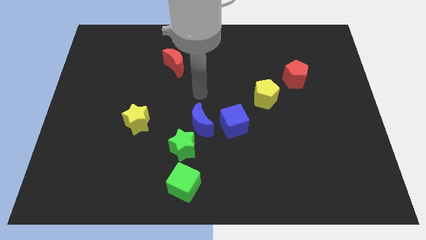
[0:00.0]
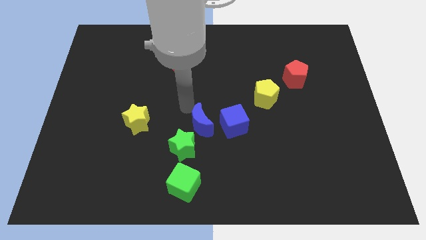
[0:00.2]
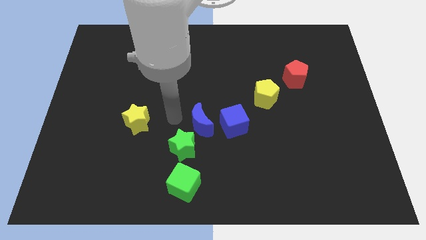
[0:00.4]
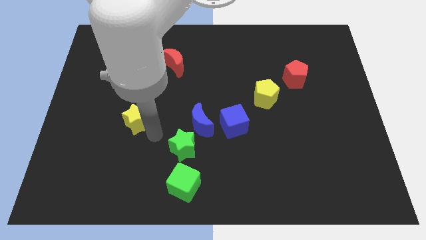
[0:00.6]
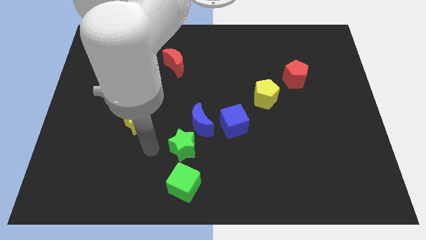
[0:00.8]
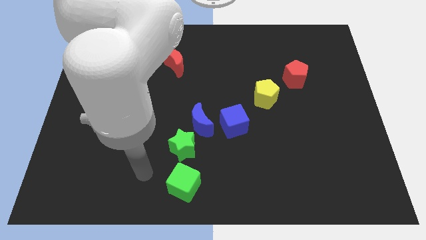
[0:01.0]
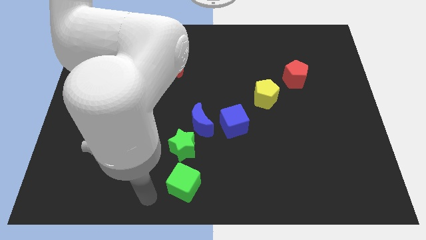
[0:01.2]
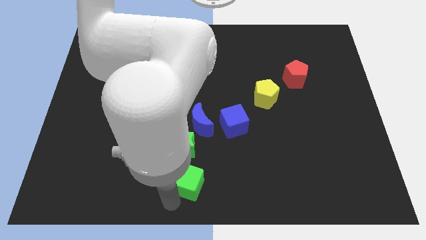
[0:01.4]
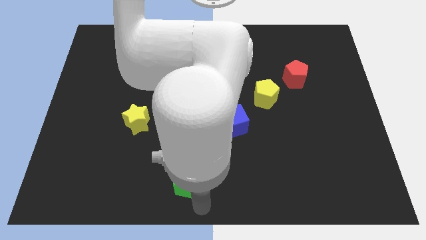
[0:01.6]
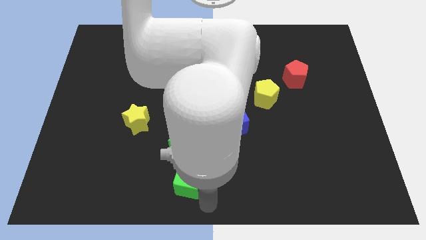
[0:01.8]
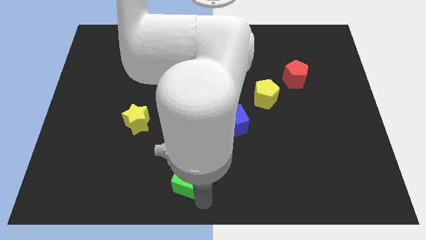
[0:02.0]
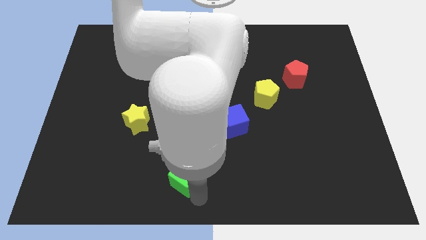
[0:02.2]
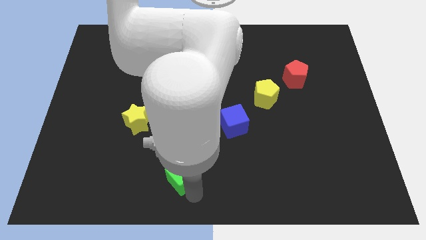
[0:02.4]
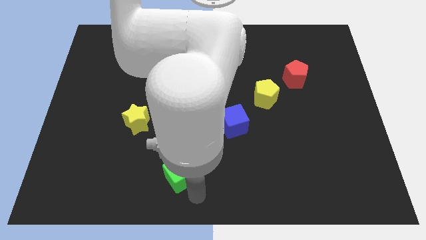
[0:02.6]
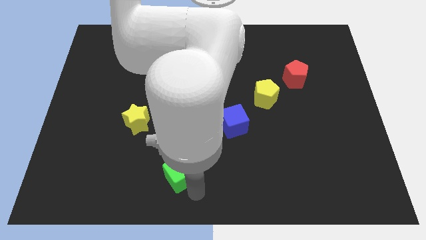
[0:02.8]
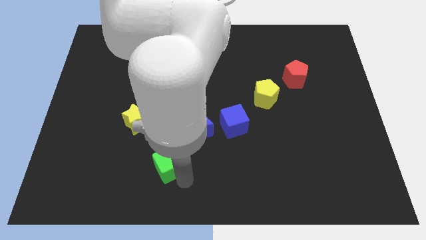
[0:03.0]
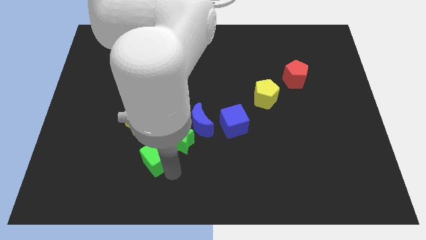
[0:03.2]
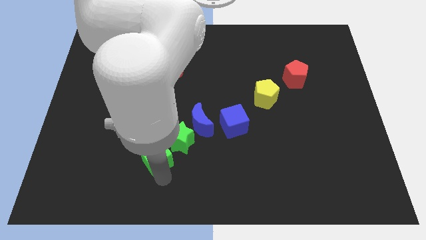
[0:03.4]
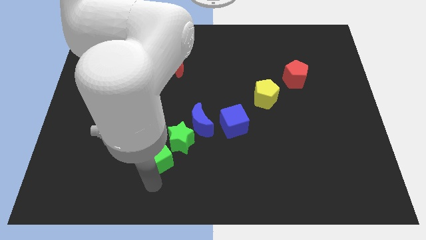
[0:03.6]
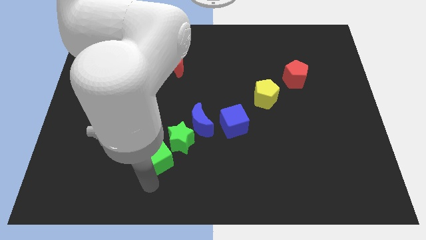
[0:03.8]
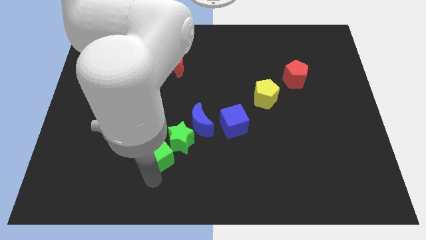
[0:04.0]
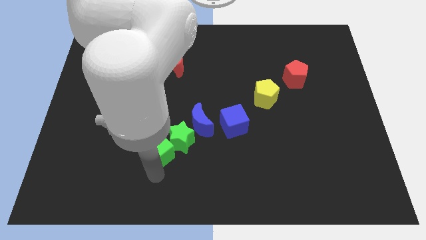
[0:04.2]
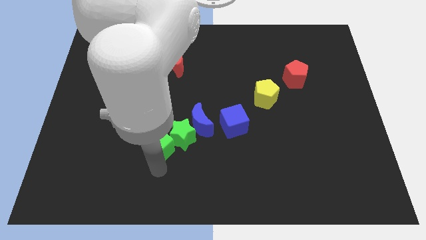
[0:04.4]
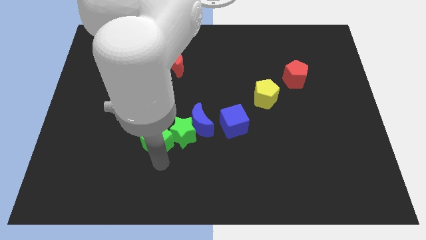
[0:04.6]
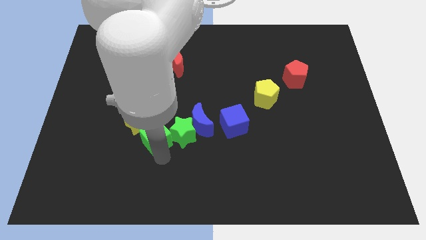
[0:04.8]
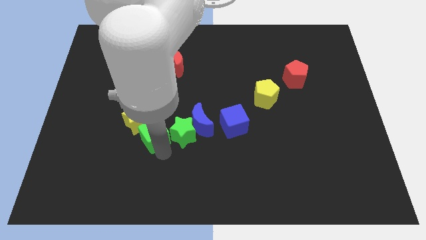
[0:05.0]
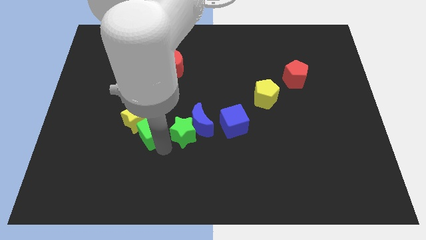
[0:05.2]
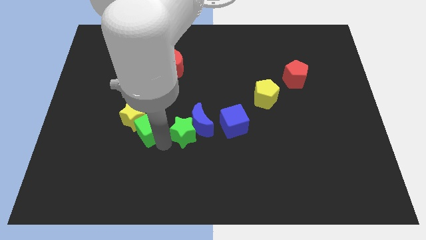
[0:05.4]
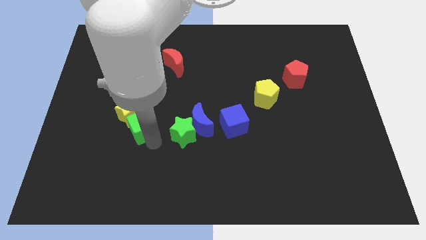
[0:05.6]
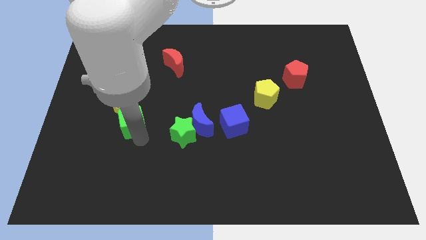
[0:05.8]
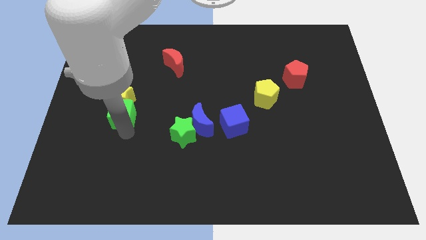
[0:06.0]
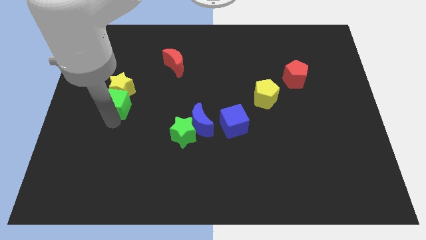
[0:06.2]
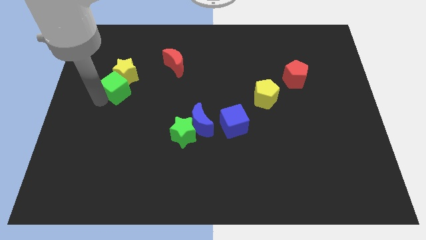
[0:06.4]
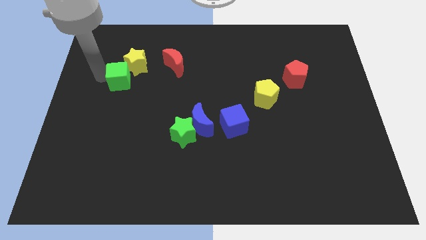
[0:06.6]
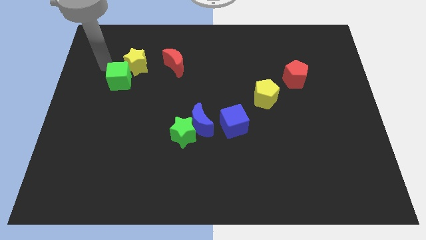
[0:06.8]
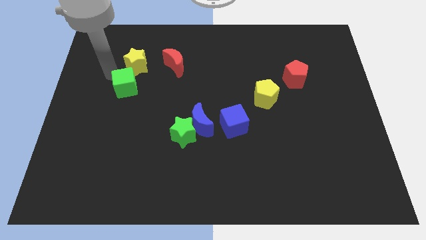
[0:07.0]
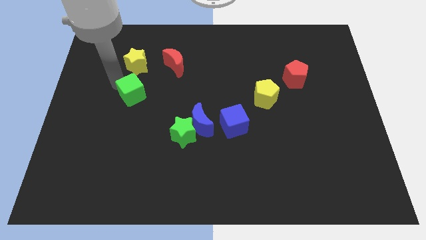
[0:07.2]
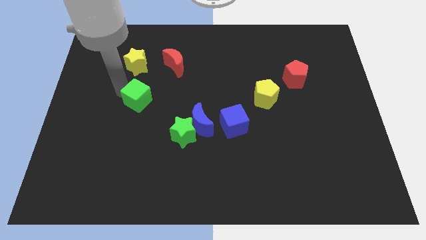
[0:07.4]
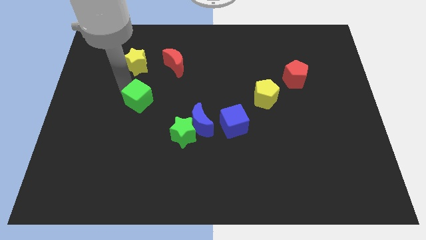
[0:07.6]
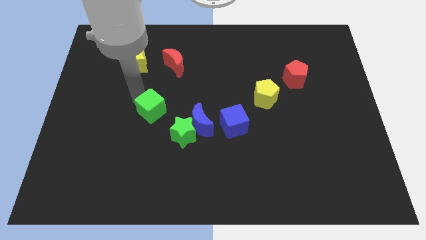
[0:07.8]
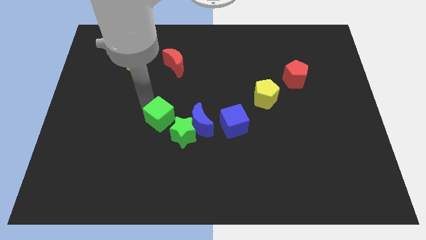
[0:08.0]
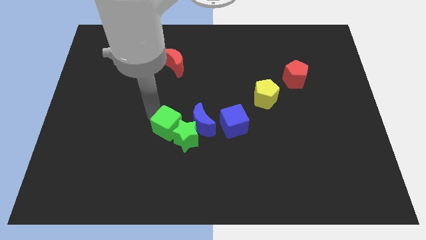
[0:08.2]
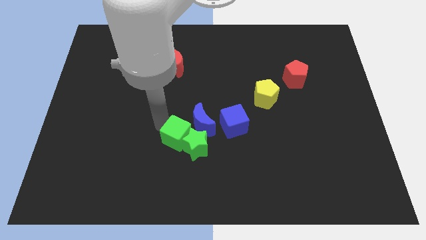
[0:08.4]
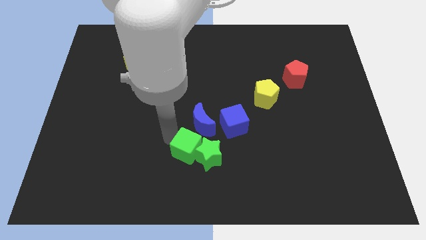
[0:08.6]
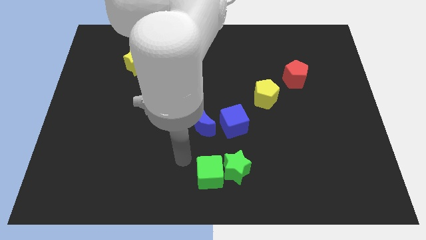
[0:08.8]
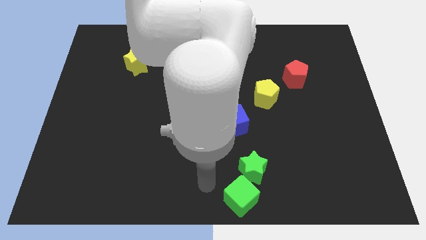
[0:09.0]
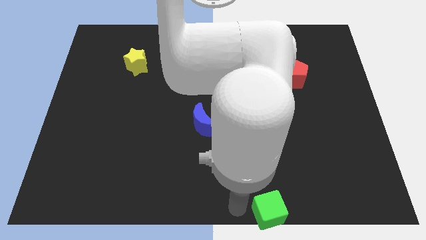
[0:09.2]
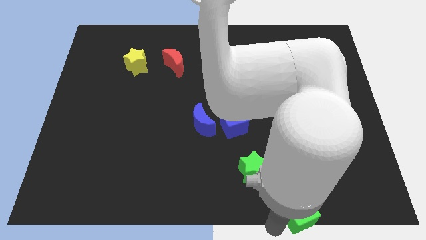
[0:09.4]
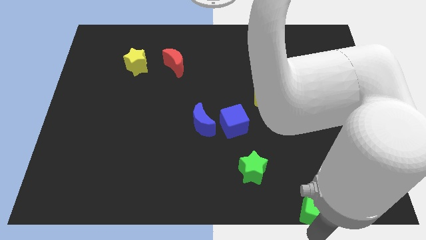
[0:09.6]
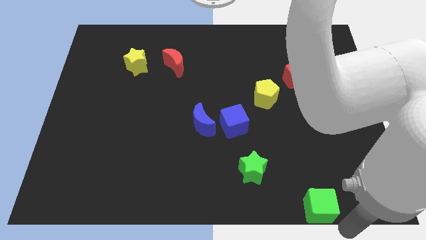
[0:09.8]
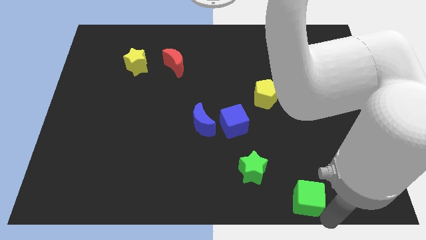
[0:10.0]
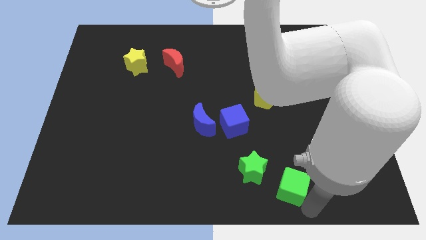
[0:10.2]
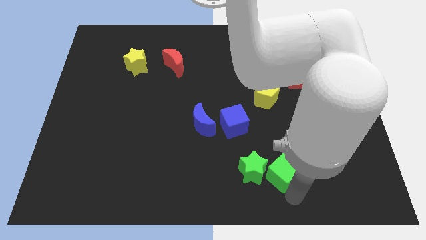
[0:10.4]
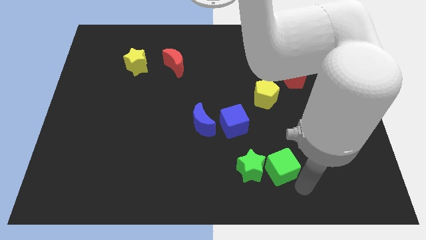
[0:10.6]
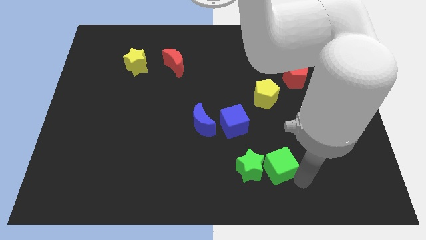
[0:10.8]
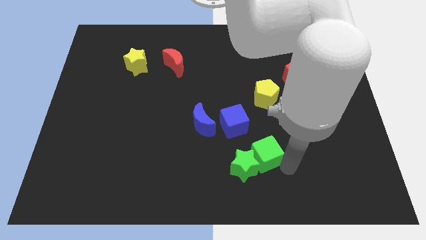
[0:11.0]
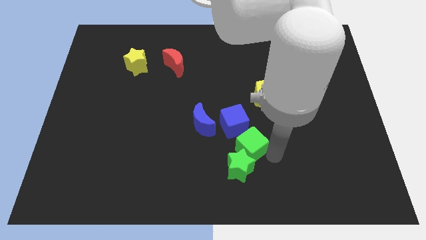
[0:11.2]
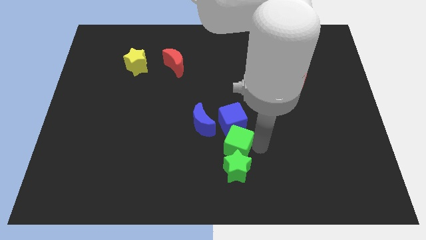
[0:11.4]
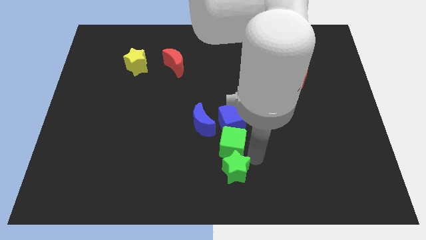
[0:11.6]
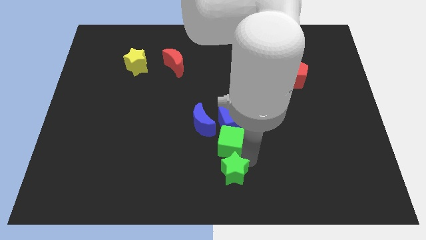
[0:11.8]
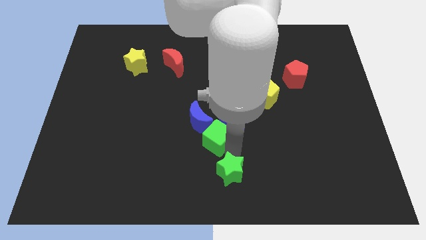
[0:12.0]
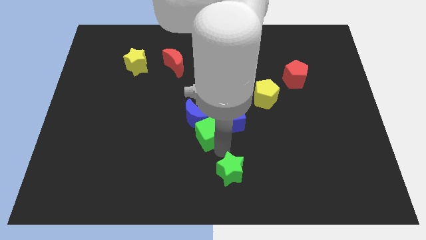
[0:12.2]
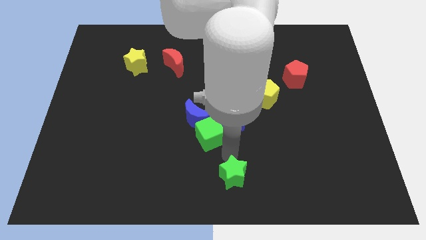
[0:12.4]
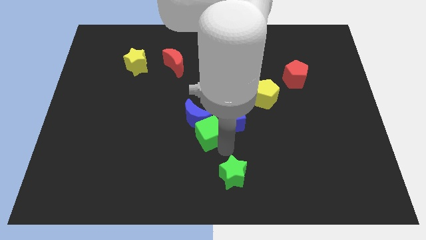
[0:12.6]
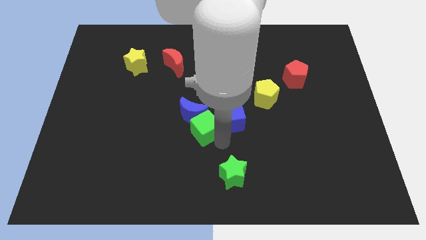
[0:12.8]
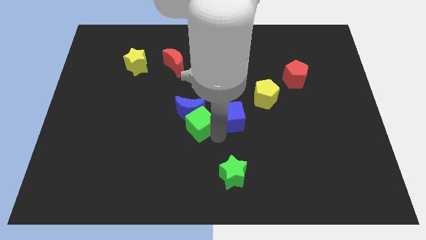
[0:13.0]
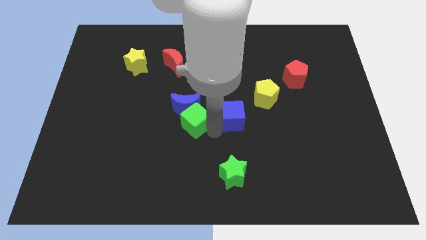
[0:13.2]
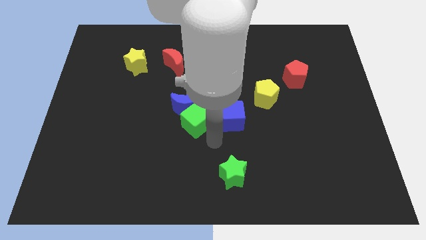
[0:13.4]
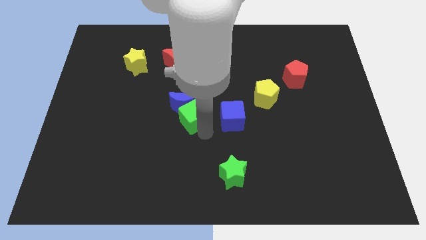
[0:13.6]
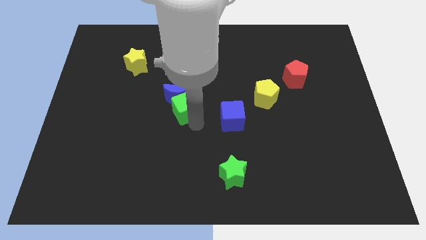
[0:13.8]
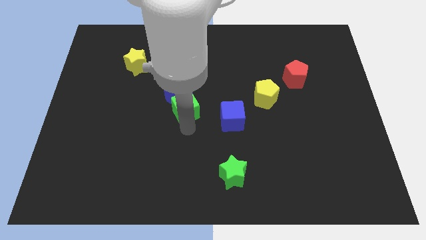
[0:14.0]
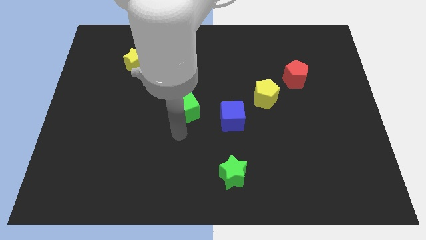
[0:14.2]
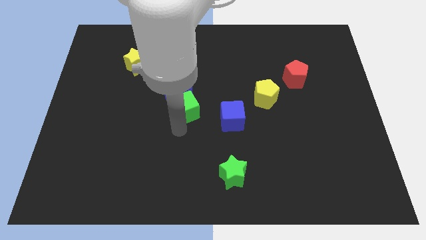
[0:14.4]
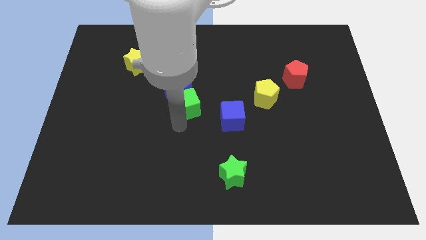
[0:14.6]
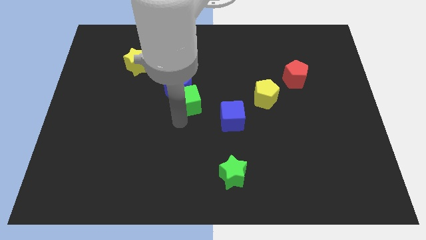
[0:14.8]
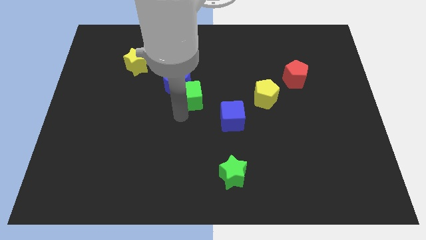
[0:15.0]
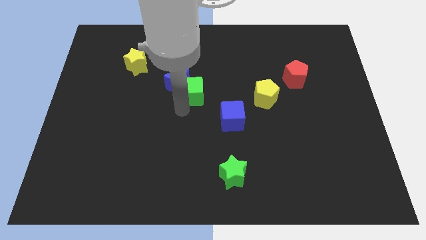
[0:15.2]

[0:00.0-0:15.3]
push the green cube to the bottom right side of the red moon
